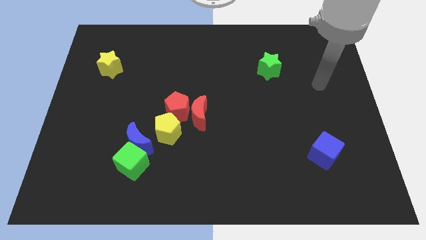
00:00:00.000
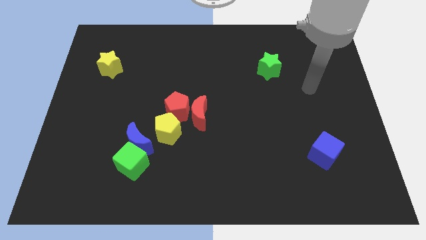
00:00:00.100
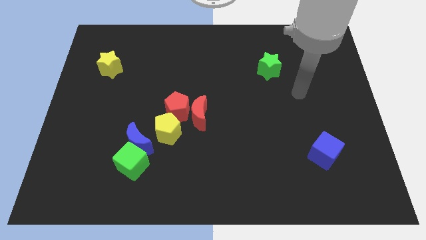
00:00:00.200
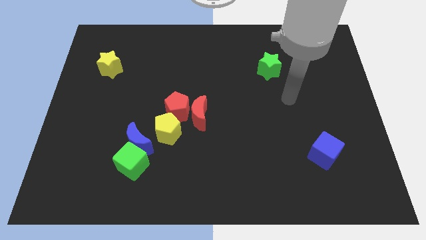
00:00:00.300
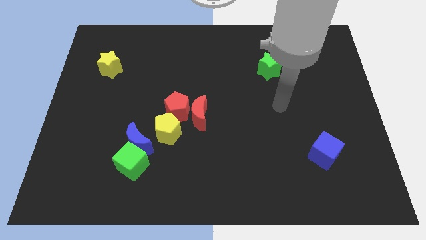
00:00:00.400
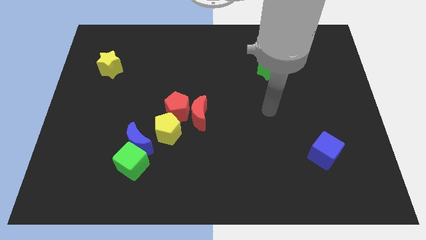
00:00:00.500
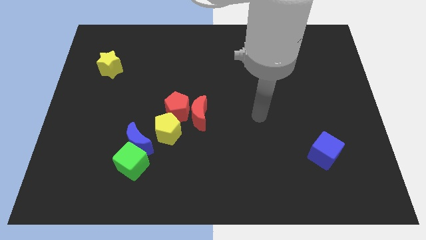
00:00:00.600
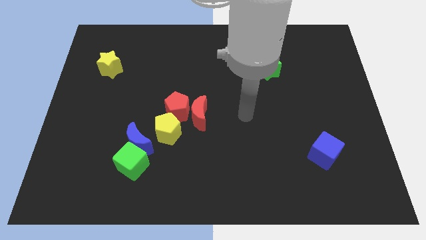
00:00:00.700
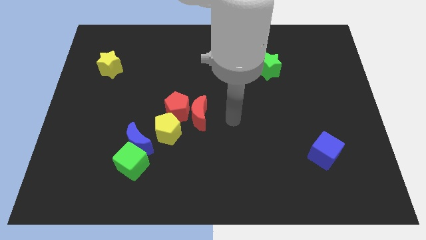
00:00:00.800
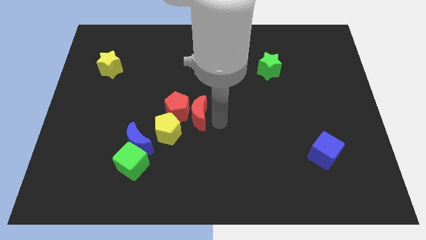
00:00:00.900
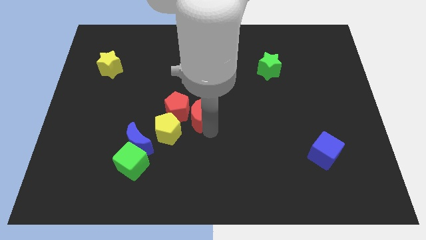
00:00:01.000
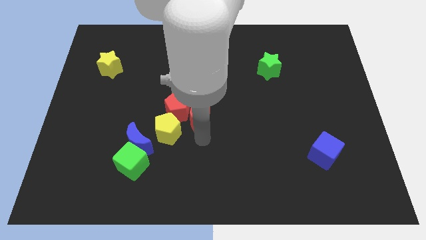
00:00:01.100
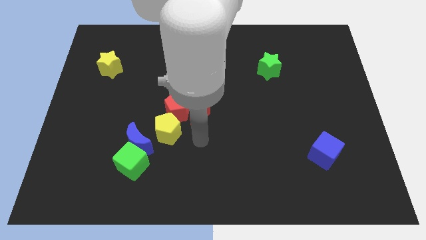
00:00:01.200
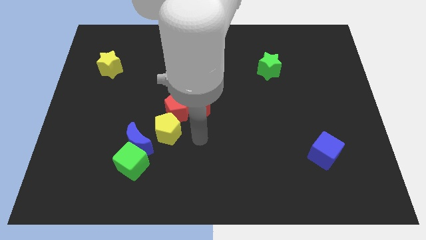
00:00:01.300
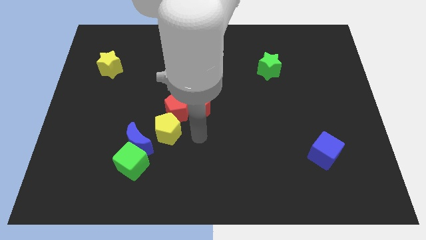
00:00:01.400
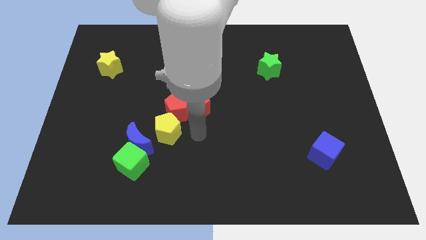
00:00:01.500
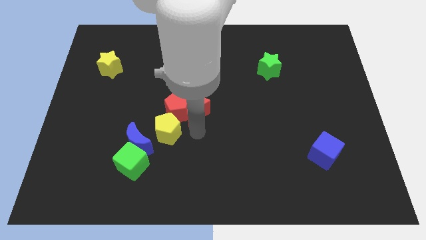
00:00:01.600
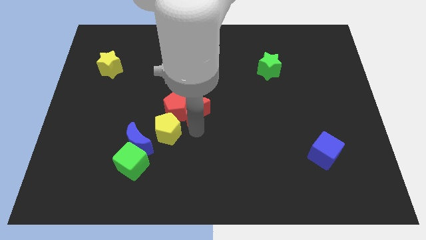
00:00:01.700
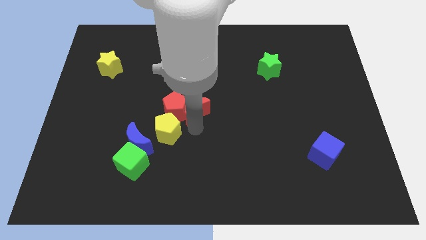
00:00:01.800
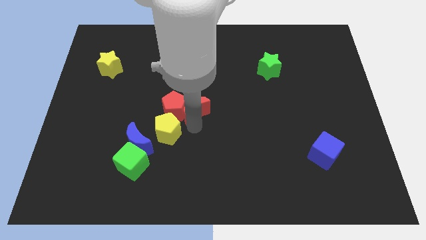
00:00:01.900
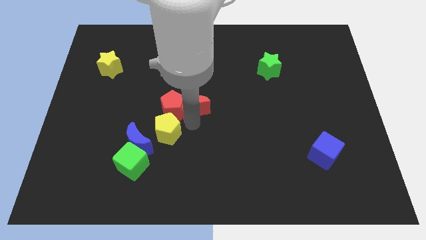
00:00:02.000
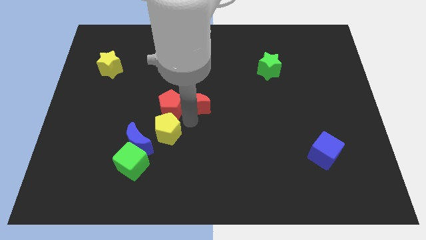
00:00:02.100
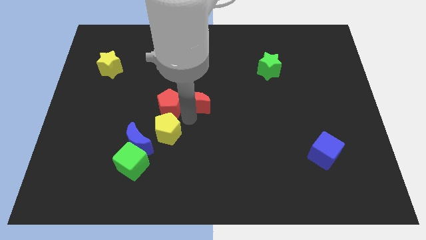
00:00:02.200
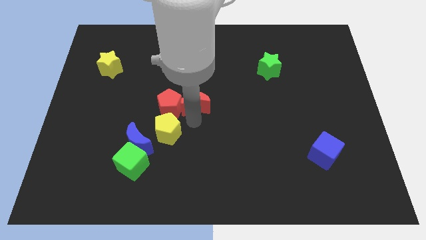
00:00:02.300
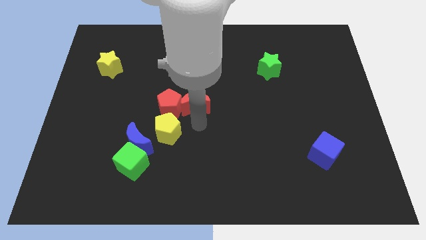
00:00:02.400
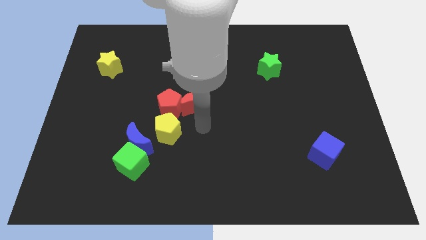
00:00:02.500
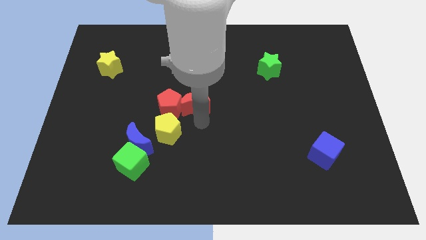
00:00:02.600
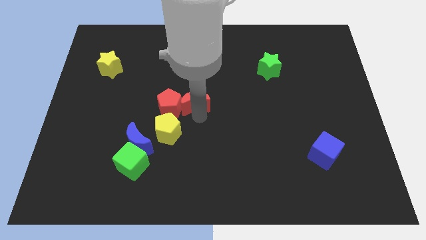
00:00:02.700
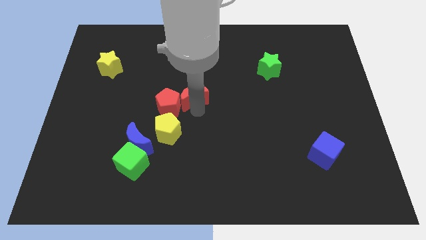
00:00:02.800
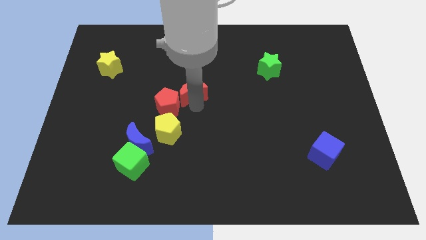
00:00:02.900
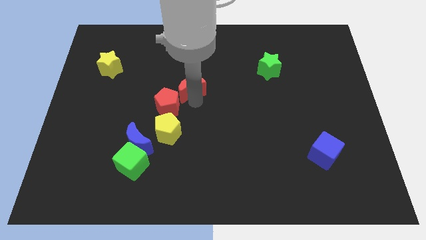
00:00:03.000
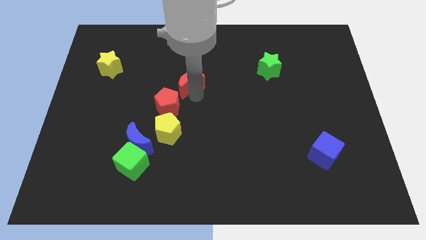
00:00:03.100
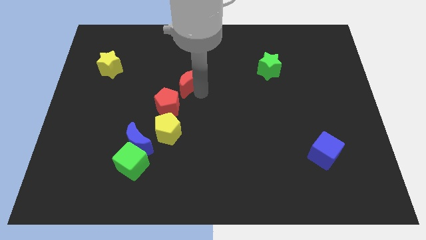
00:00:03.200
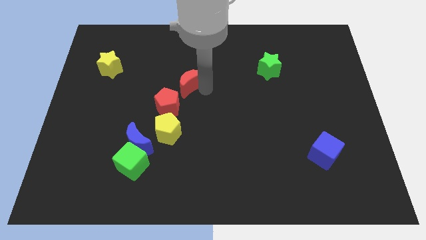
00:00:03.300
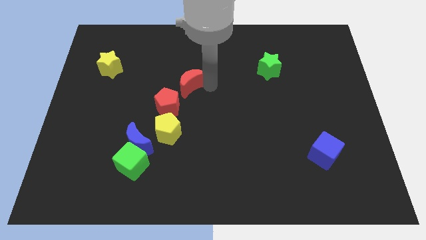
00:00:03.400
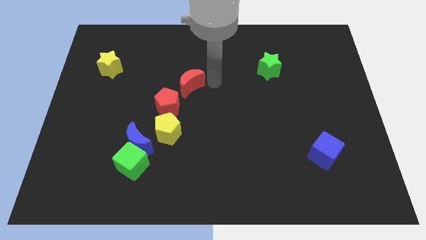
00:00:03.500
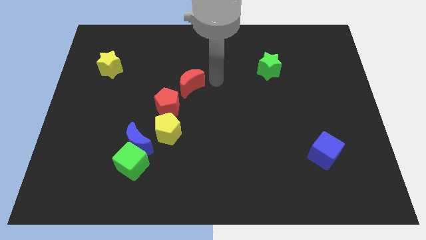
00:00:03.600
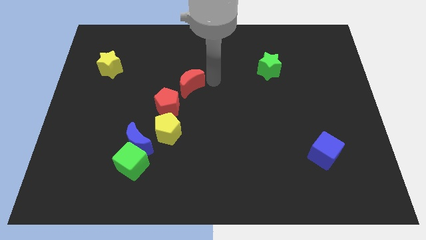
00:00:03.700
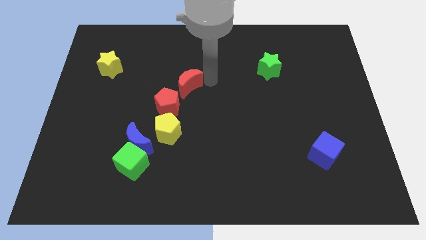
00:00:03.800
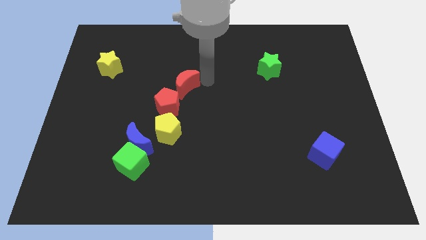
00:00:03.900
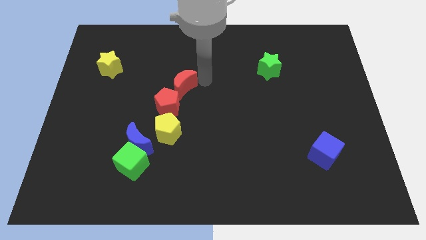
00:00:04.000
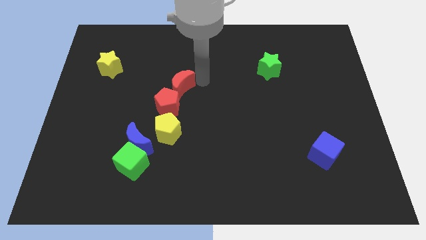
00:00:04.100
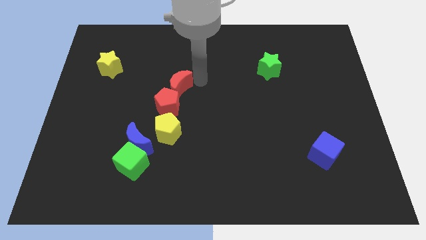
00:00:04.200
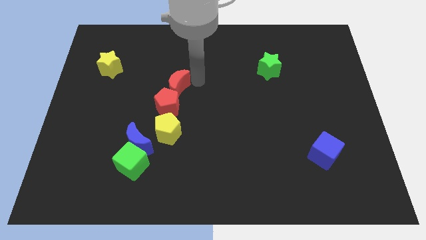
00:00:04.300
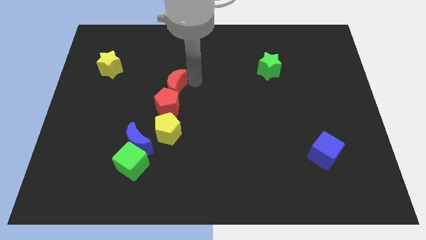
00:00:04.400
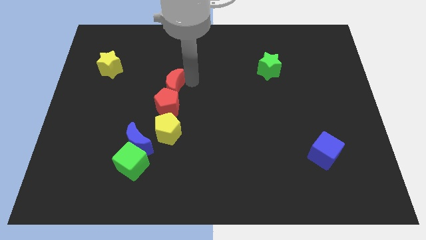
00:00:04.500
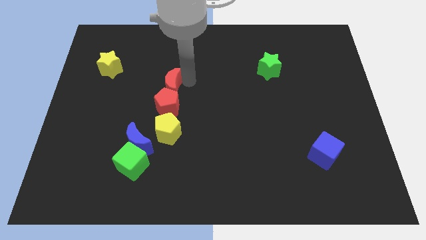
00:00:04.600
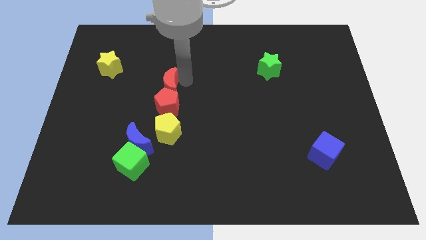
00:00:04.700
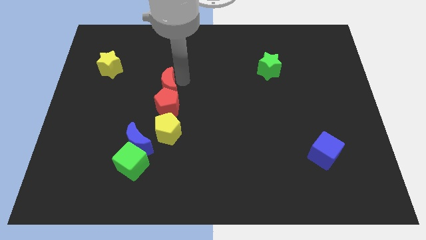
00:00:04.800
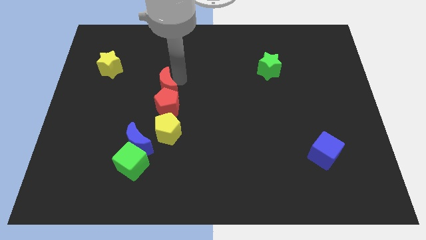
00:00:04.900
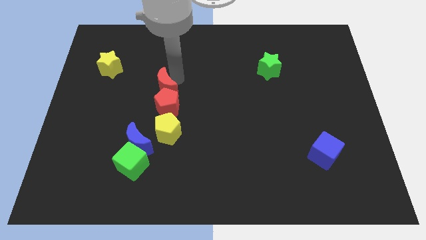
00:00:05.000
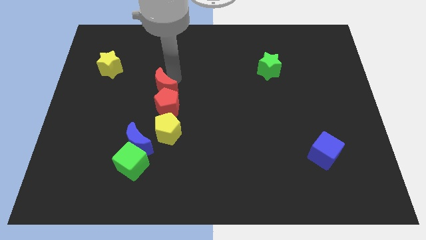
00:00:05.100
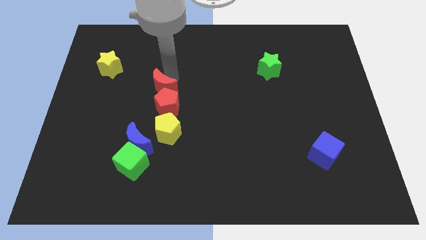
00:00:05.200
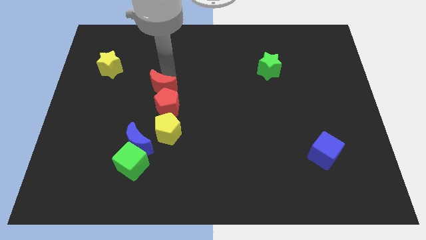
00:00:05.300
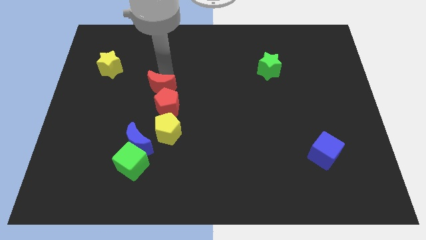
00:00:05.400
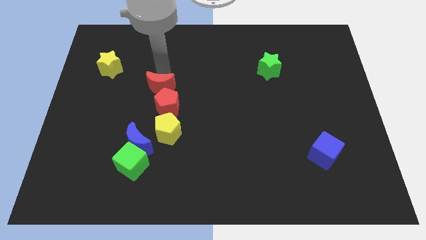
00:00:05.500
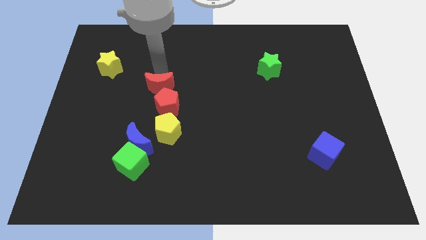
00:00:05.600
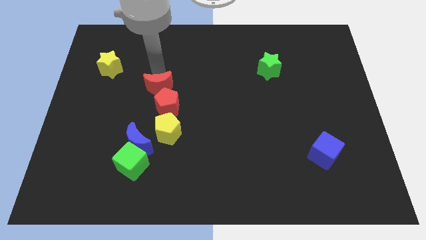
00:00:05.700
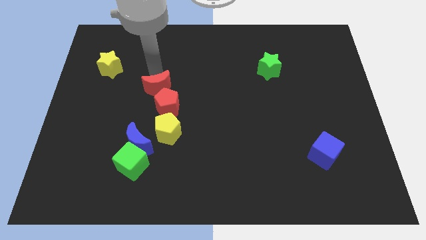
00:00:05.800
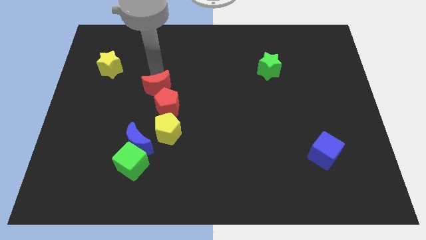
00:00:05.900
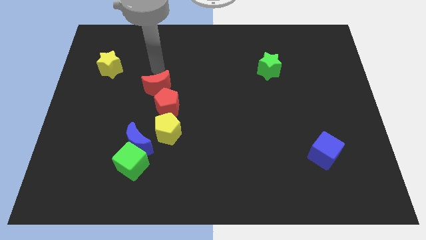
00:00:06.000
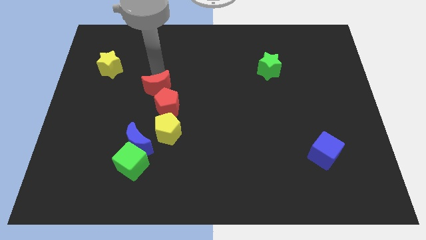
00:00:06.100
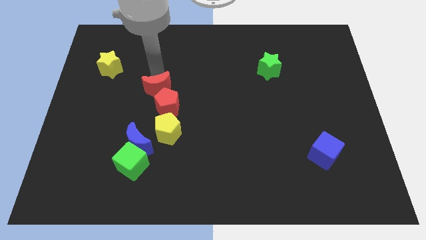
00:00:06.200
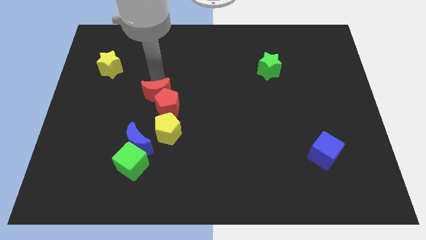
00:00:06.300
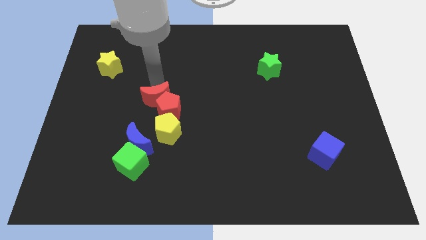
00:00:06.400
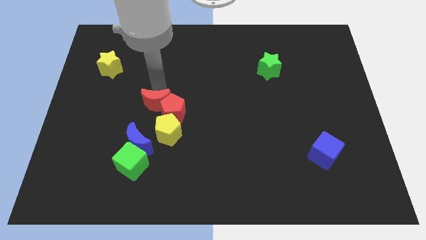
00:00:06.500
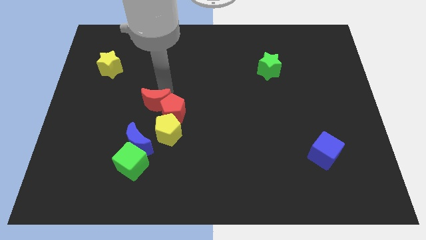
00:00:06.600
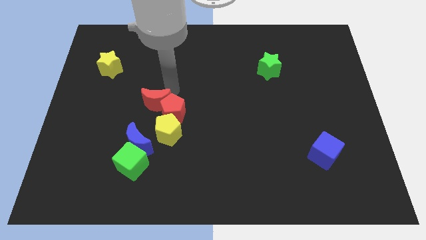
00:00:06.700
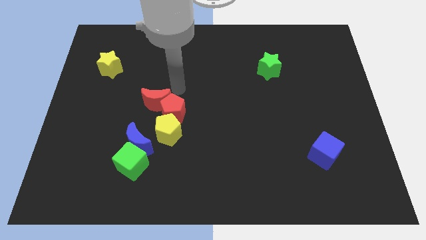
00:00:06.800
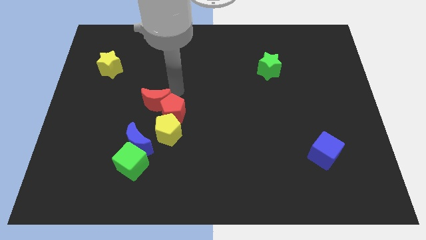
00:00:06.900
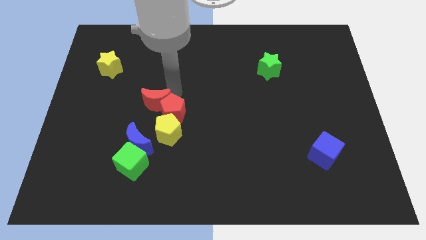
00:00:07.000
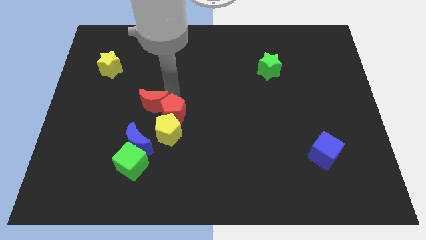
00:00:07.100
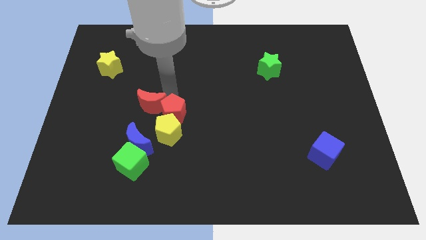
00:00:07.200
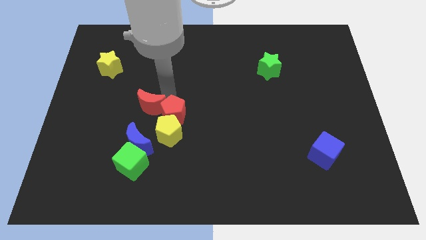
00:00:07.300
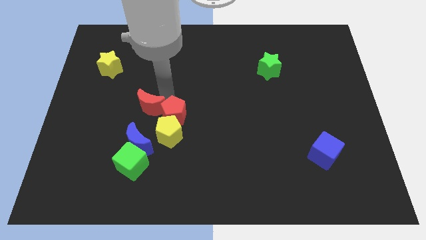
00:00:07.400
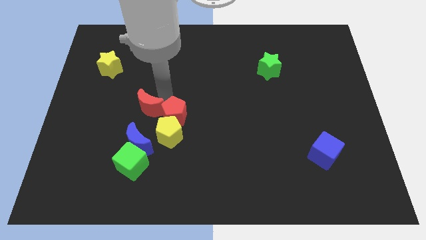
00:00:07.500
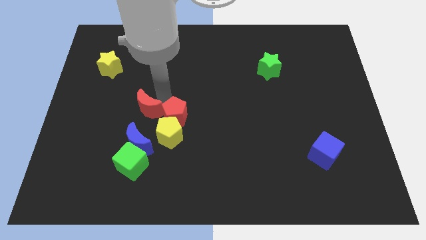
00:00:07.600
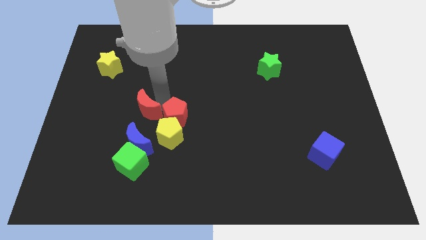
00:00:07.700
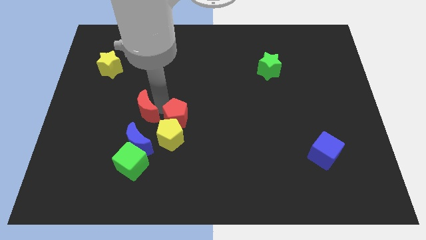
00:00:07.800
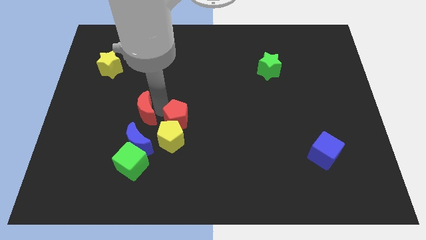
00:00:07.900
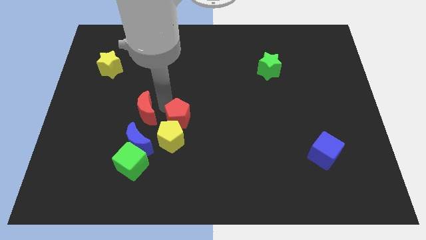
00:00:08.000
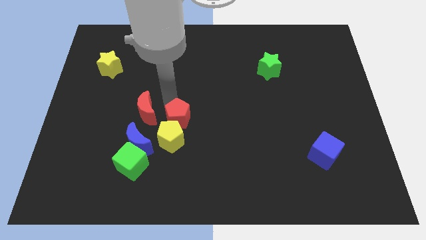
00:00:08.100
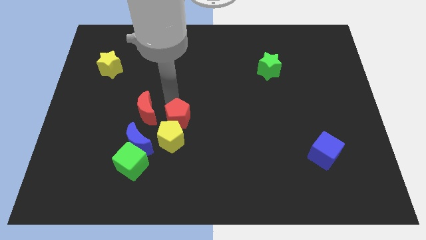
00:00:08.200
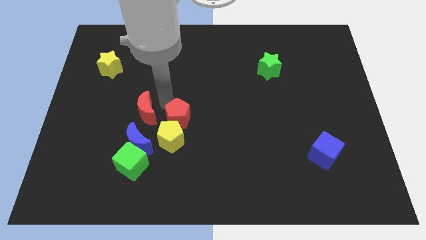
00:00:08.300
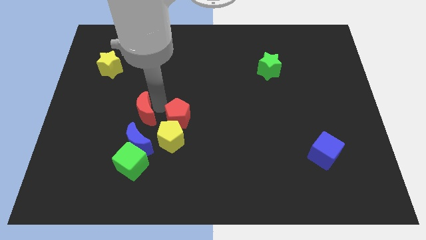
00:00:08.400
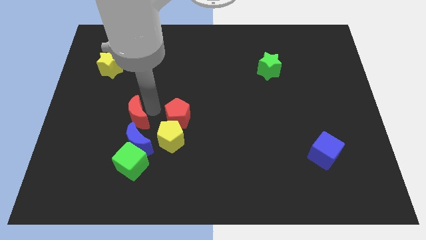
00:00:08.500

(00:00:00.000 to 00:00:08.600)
move the red moon diagonally up and to the left of the blue moon
